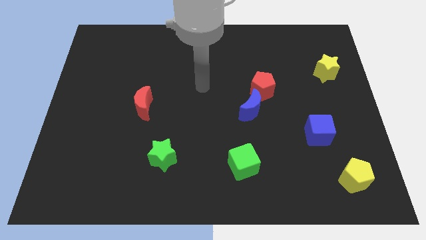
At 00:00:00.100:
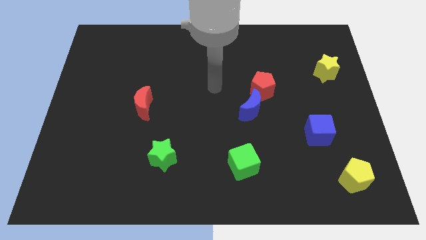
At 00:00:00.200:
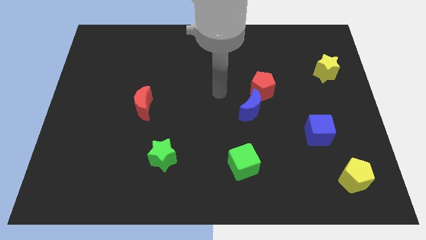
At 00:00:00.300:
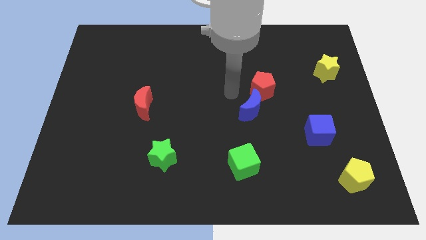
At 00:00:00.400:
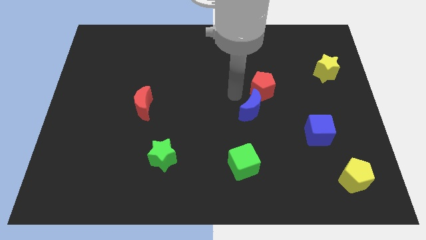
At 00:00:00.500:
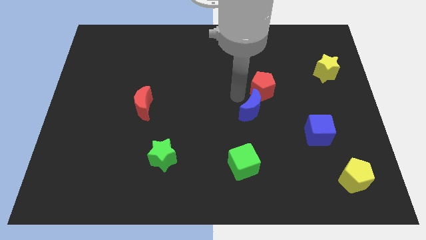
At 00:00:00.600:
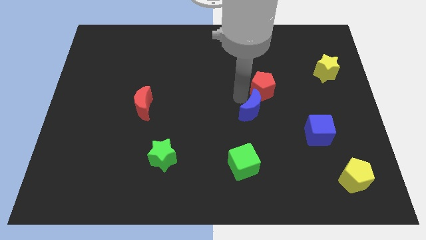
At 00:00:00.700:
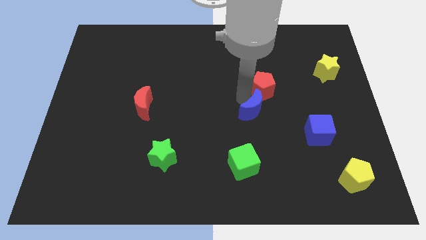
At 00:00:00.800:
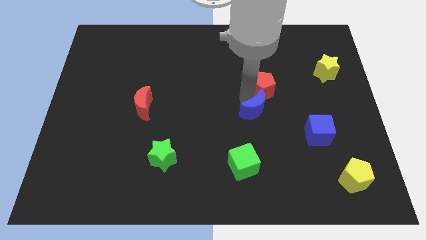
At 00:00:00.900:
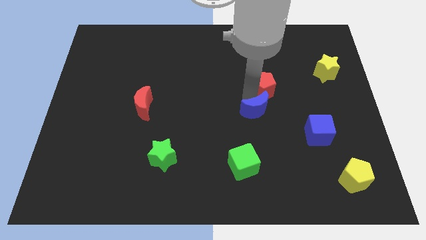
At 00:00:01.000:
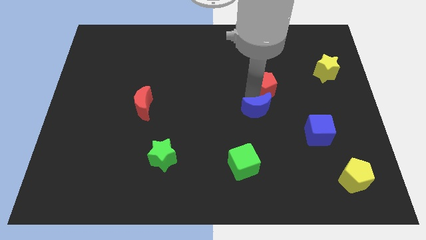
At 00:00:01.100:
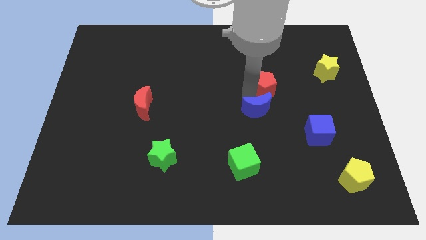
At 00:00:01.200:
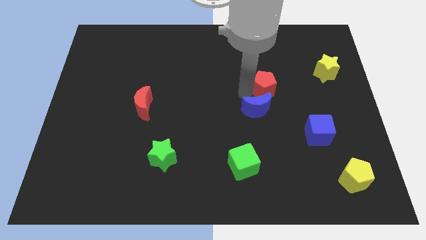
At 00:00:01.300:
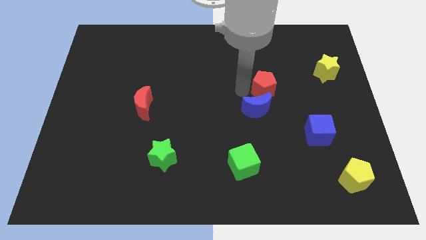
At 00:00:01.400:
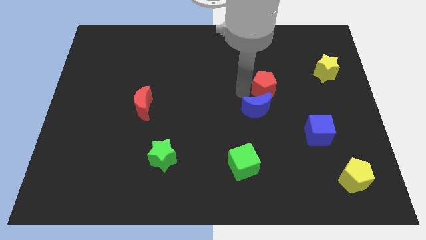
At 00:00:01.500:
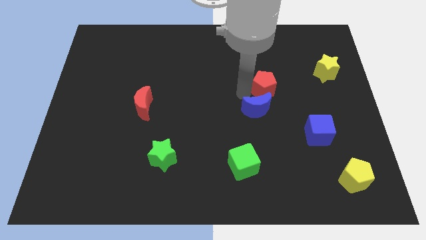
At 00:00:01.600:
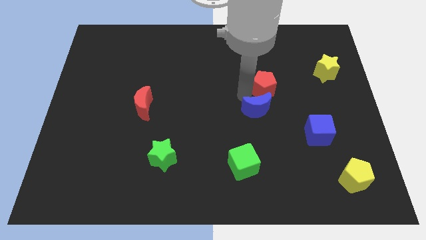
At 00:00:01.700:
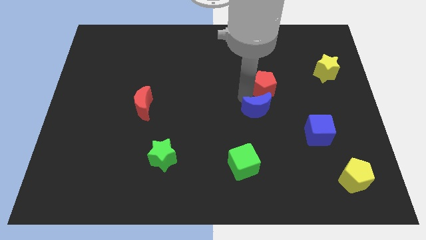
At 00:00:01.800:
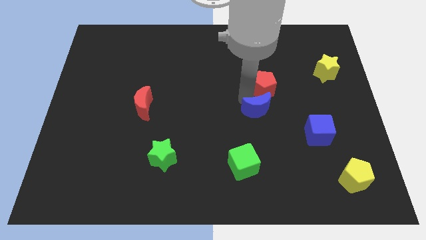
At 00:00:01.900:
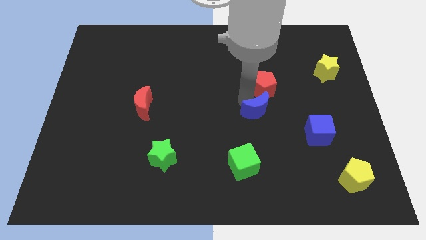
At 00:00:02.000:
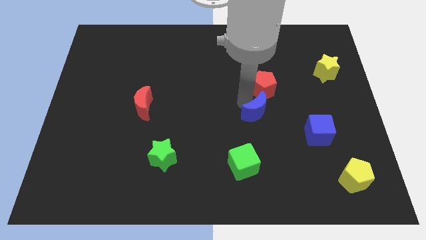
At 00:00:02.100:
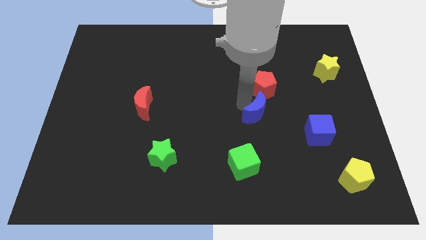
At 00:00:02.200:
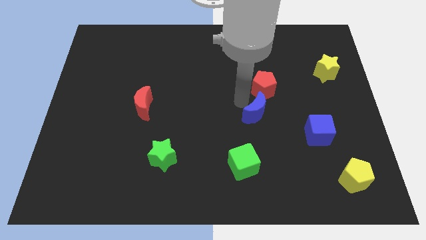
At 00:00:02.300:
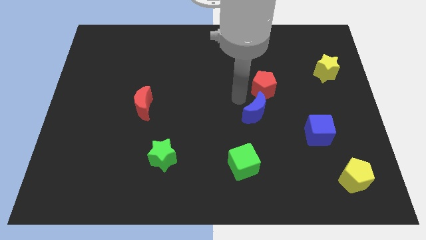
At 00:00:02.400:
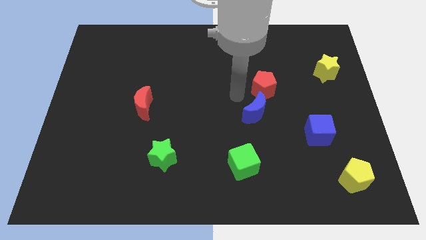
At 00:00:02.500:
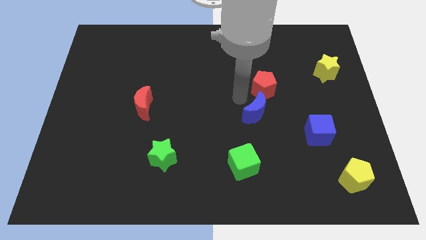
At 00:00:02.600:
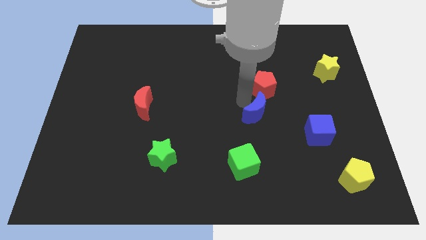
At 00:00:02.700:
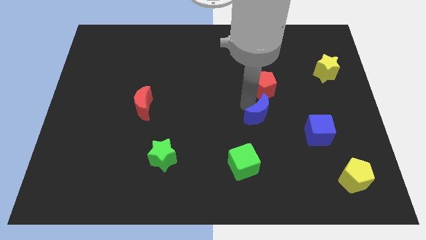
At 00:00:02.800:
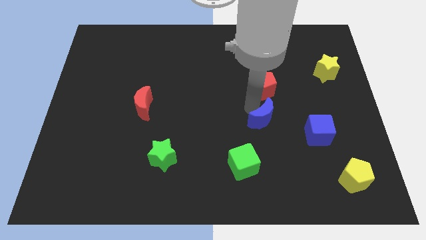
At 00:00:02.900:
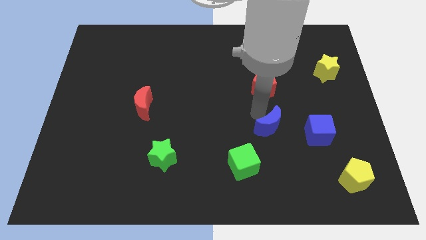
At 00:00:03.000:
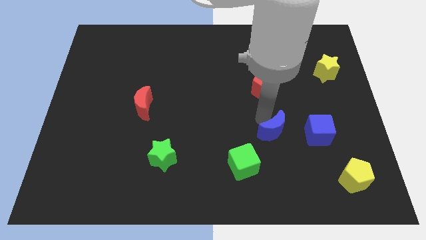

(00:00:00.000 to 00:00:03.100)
slide the blue moon somewhat downwards and to the right

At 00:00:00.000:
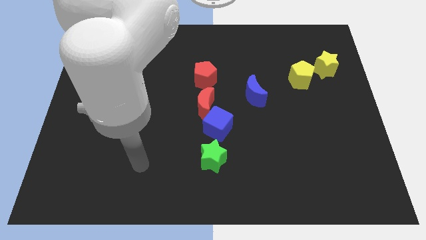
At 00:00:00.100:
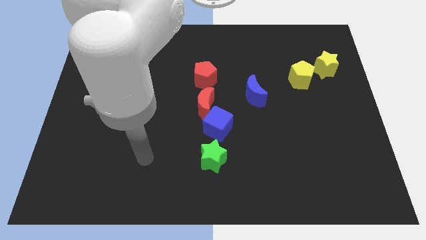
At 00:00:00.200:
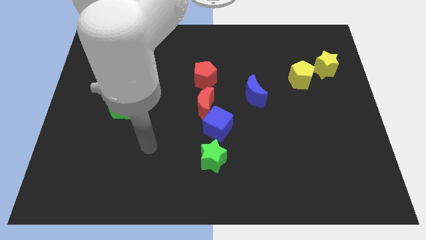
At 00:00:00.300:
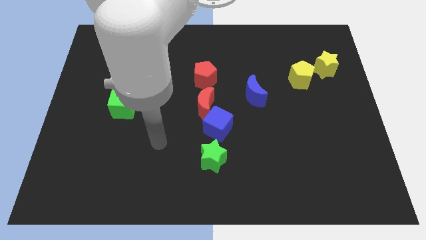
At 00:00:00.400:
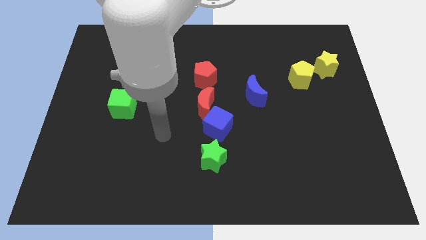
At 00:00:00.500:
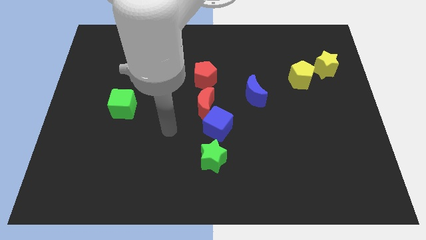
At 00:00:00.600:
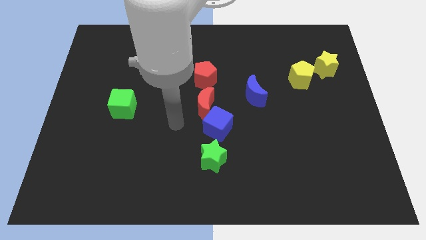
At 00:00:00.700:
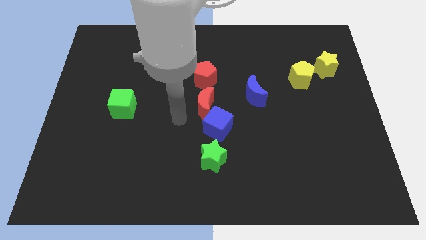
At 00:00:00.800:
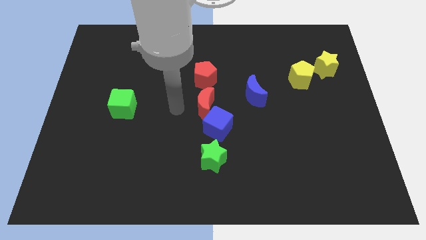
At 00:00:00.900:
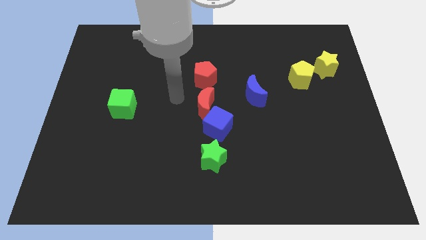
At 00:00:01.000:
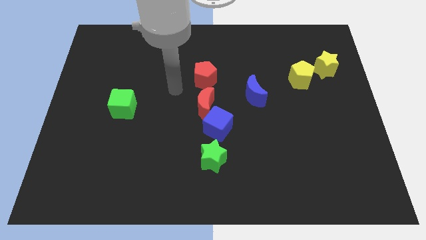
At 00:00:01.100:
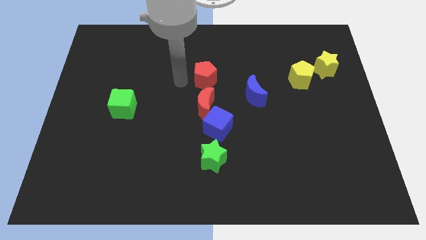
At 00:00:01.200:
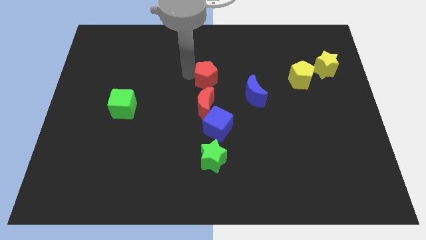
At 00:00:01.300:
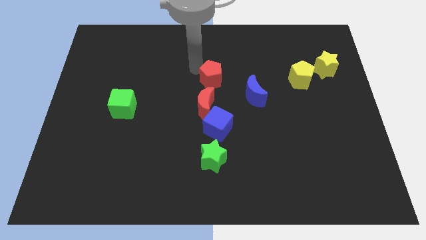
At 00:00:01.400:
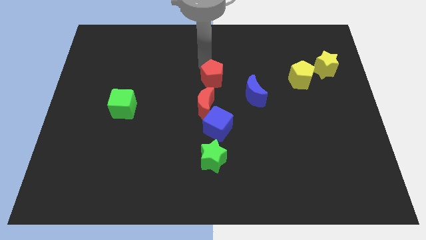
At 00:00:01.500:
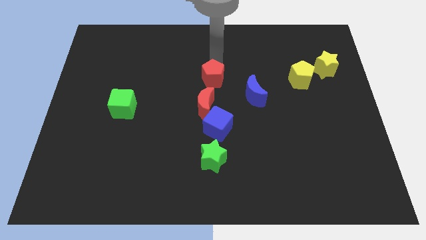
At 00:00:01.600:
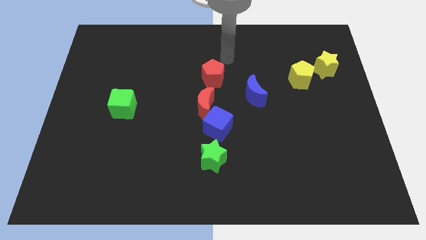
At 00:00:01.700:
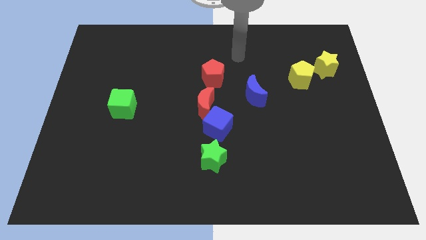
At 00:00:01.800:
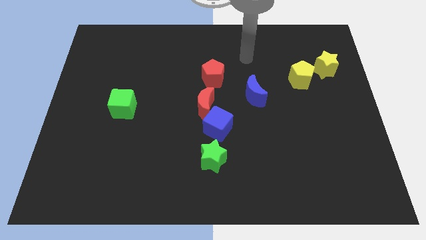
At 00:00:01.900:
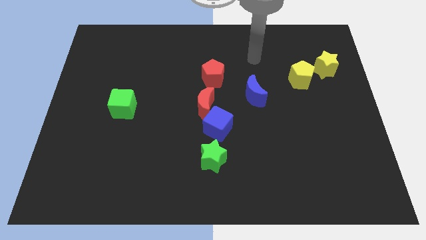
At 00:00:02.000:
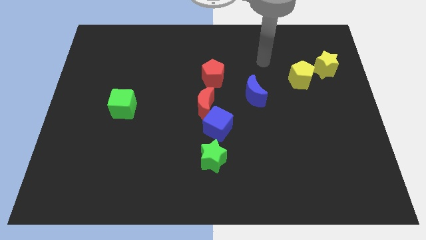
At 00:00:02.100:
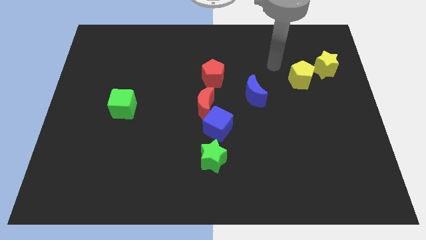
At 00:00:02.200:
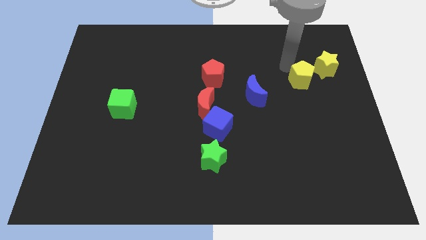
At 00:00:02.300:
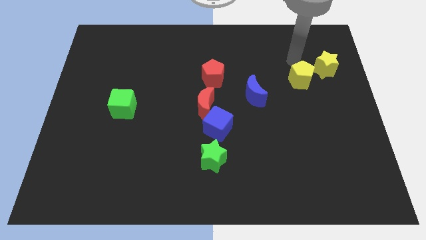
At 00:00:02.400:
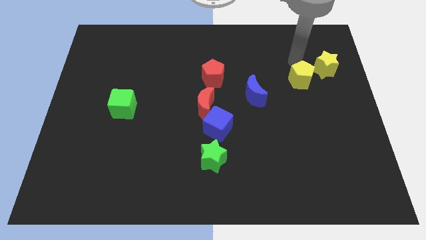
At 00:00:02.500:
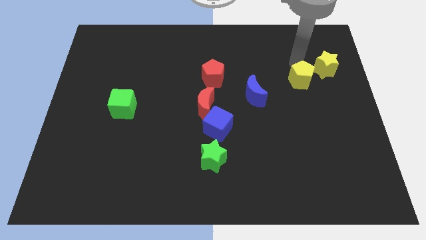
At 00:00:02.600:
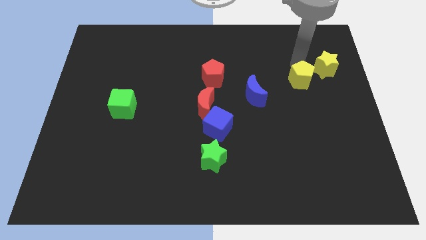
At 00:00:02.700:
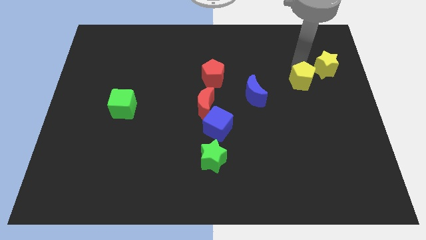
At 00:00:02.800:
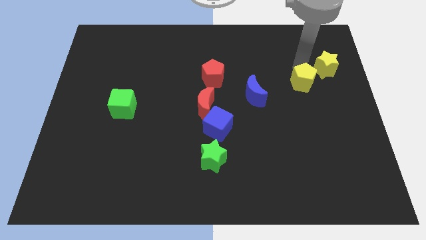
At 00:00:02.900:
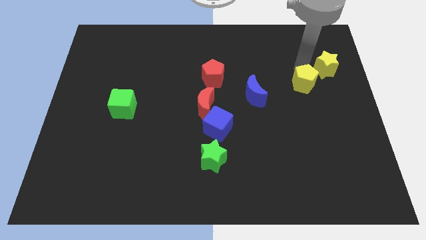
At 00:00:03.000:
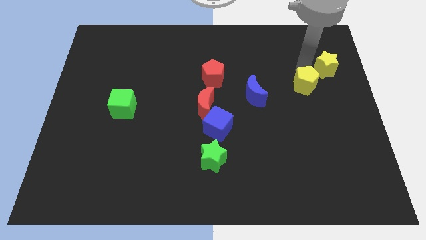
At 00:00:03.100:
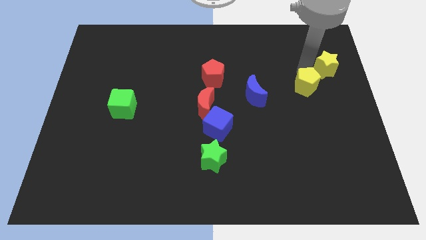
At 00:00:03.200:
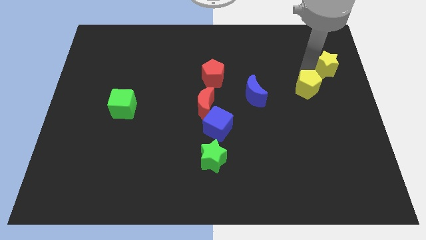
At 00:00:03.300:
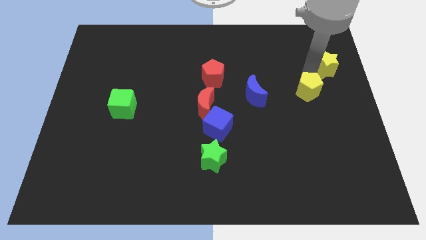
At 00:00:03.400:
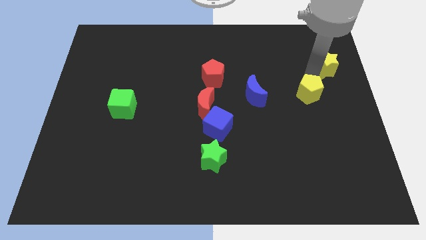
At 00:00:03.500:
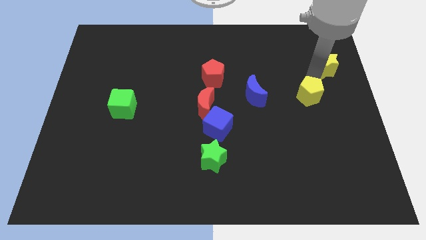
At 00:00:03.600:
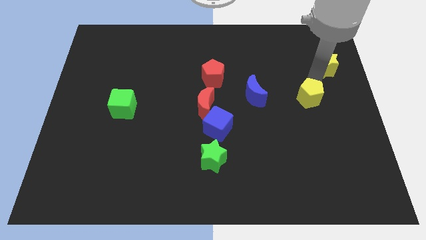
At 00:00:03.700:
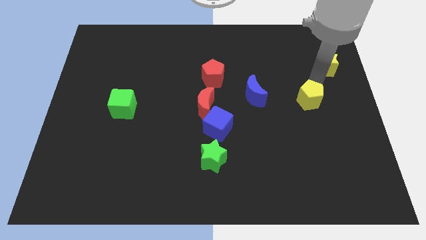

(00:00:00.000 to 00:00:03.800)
slightly push the yellow pentagon down

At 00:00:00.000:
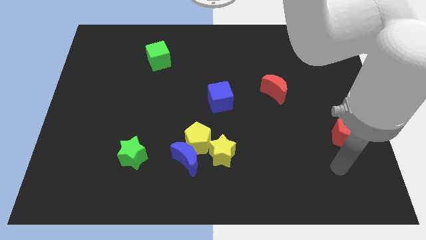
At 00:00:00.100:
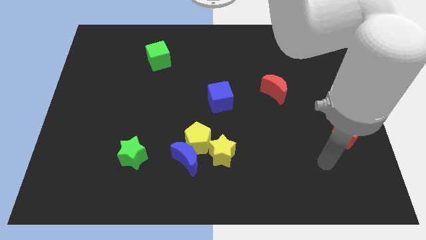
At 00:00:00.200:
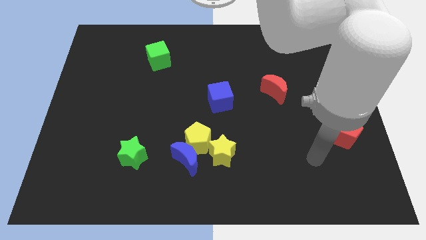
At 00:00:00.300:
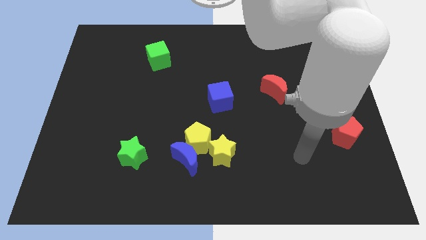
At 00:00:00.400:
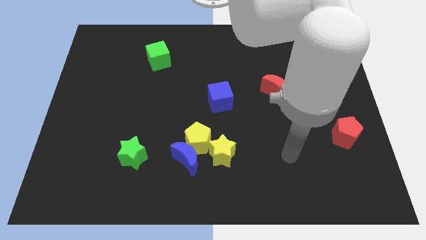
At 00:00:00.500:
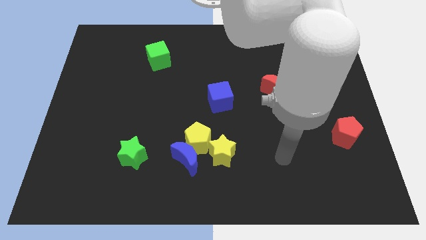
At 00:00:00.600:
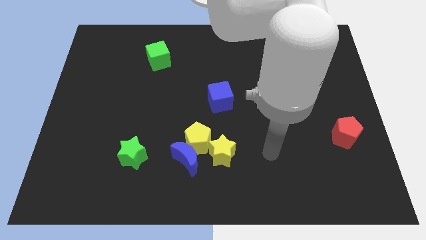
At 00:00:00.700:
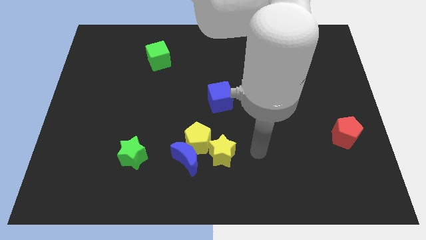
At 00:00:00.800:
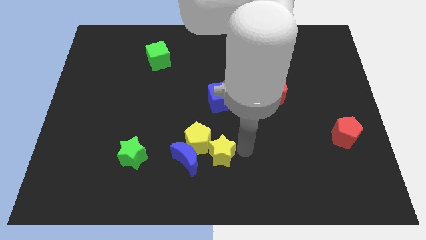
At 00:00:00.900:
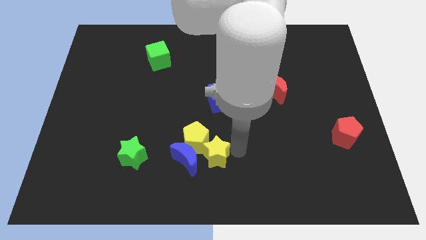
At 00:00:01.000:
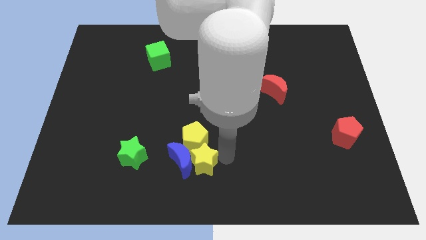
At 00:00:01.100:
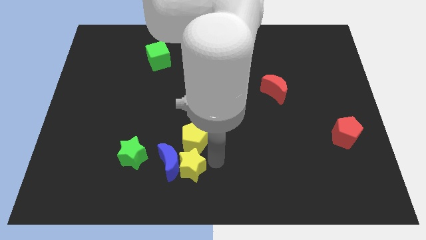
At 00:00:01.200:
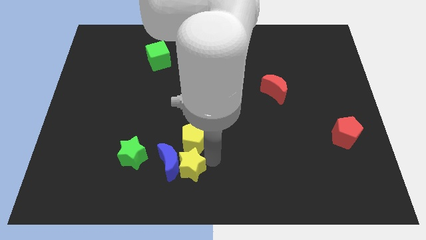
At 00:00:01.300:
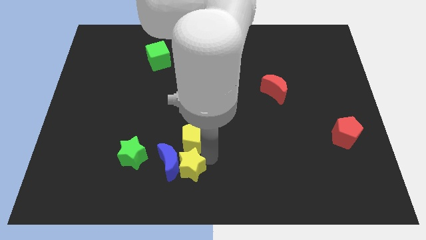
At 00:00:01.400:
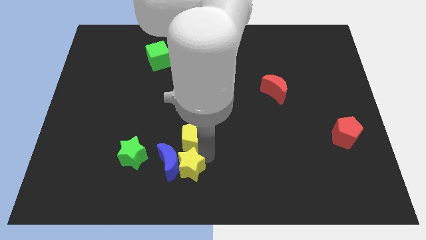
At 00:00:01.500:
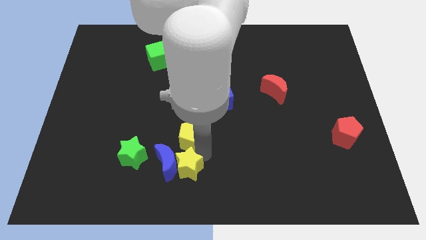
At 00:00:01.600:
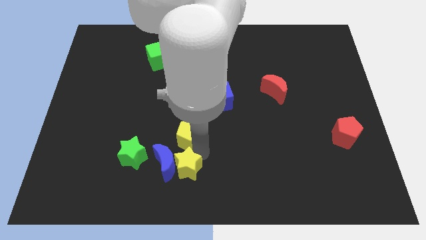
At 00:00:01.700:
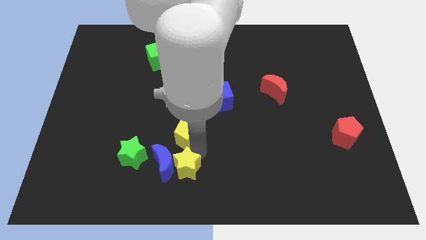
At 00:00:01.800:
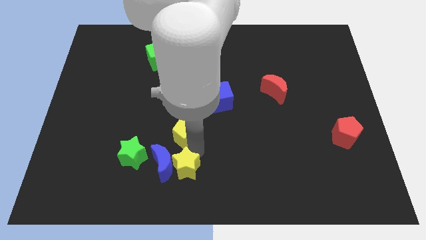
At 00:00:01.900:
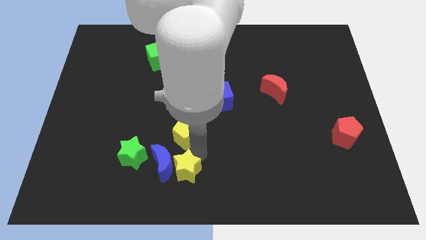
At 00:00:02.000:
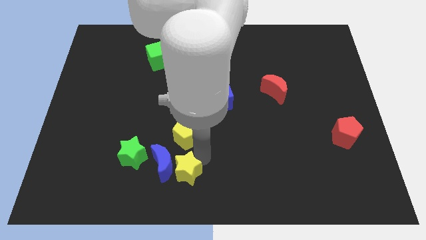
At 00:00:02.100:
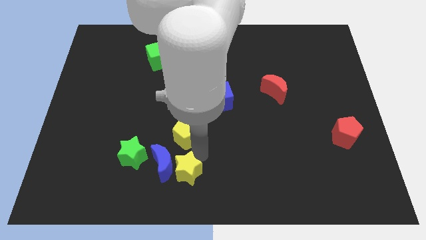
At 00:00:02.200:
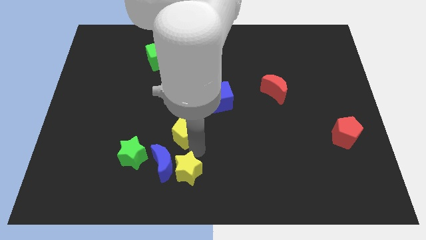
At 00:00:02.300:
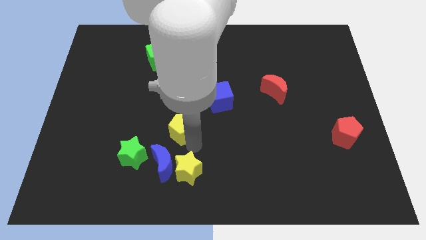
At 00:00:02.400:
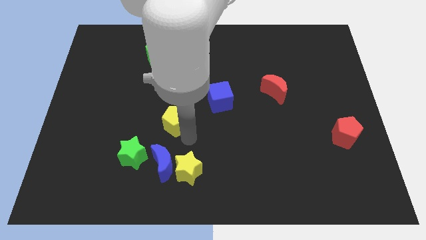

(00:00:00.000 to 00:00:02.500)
push the yellow pentagon upwards and left diagonally a little
